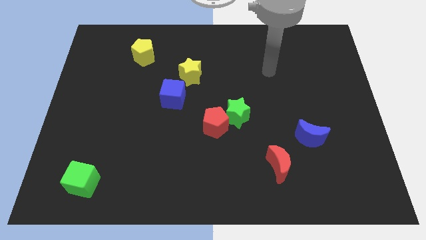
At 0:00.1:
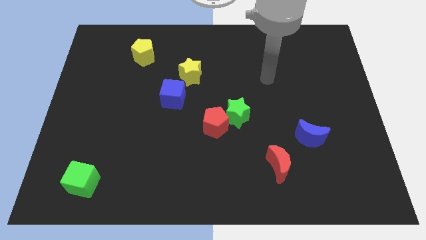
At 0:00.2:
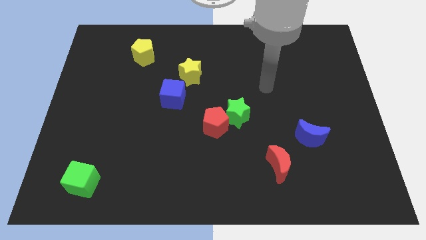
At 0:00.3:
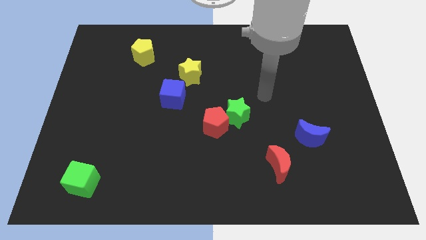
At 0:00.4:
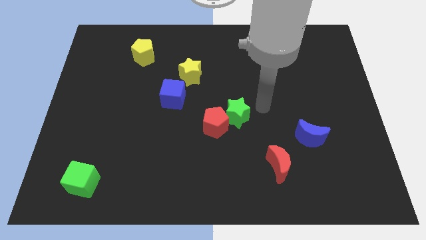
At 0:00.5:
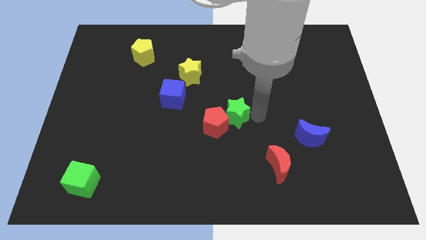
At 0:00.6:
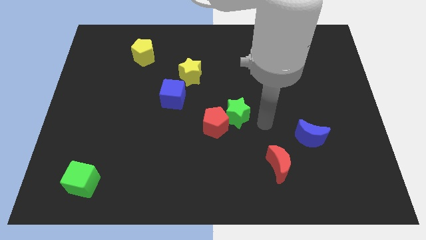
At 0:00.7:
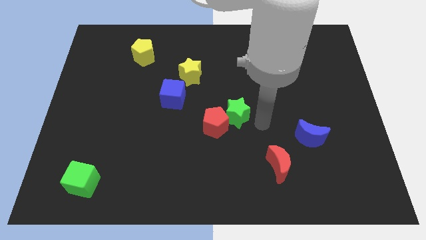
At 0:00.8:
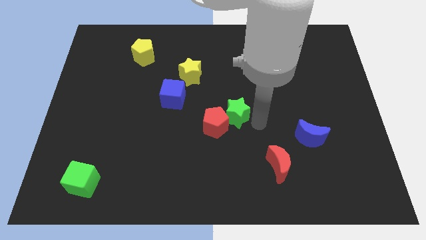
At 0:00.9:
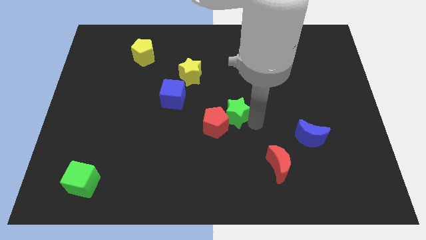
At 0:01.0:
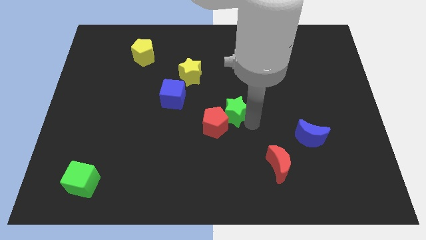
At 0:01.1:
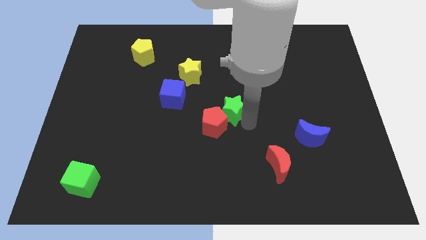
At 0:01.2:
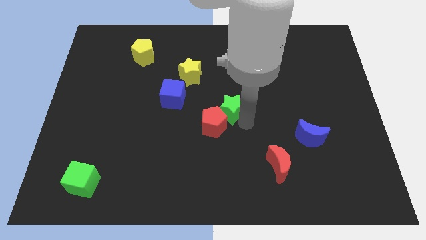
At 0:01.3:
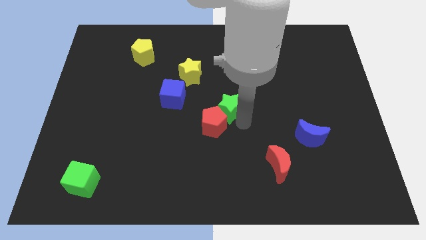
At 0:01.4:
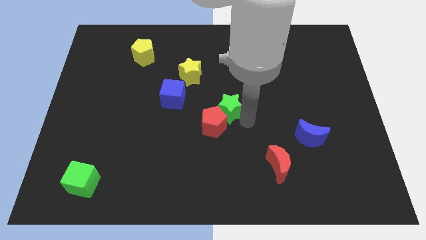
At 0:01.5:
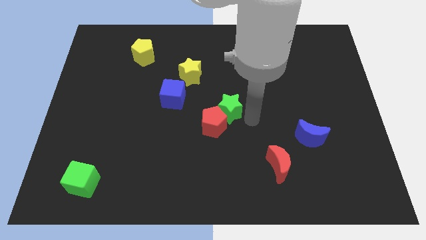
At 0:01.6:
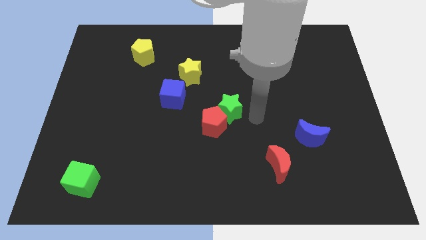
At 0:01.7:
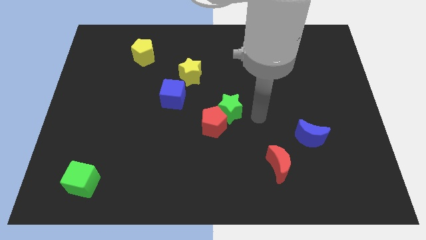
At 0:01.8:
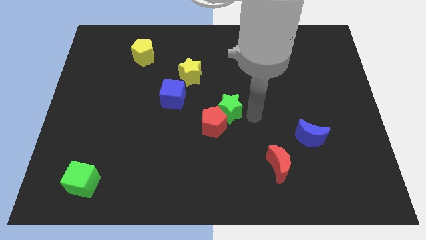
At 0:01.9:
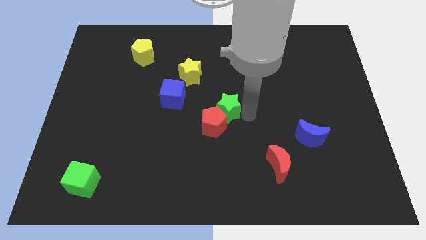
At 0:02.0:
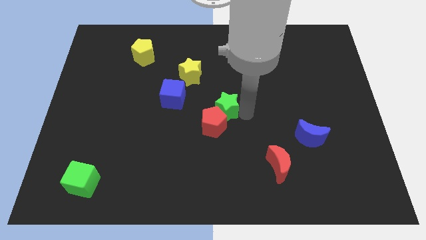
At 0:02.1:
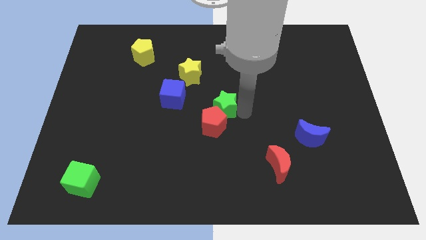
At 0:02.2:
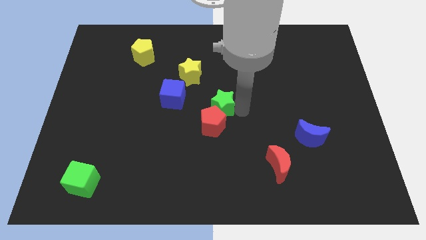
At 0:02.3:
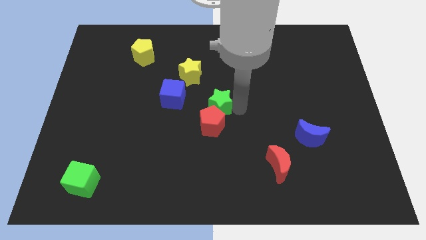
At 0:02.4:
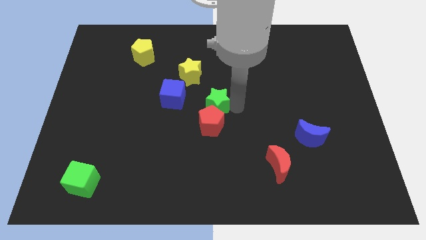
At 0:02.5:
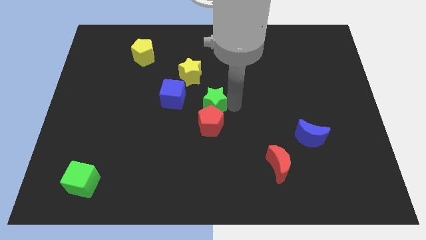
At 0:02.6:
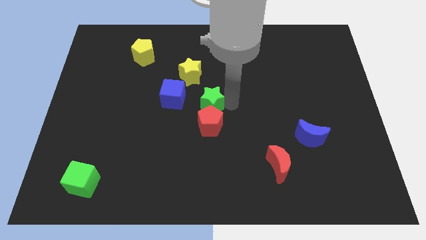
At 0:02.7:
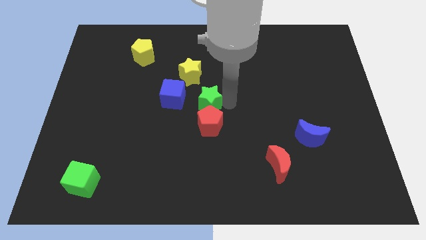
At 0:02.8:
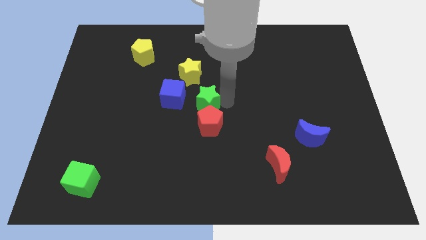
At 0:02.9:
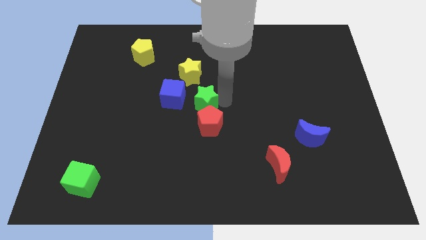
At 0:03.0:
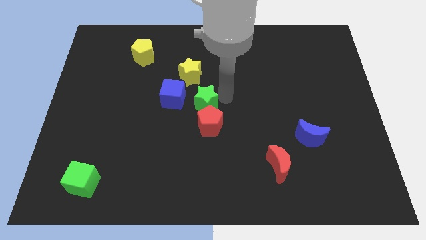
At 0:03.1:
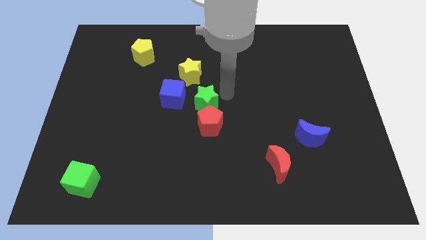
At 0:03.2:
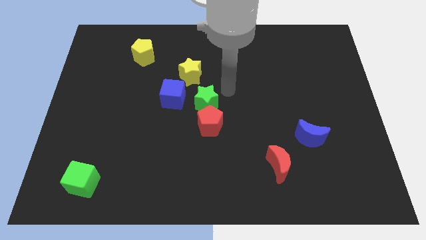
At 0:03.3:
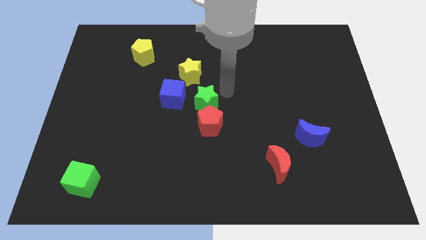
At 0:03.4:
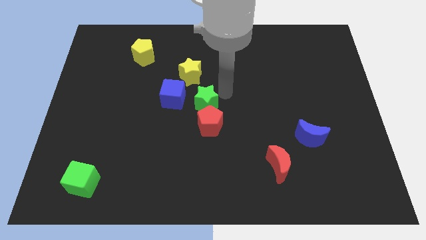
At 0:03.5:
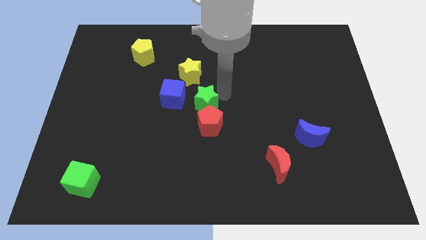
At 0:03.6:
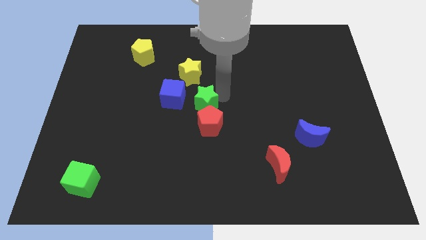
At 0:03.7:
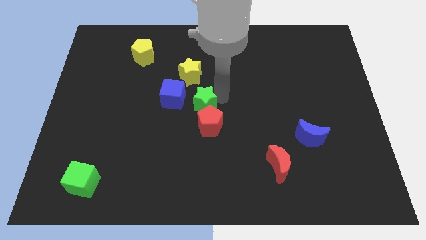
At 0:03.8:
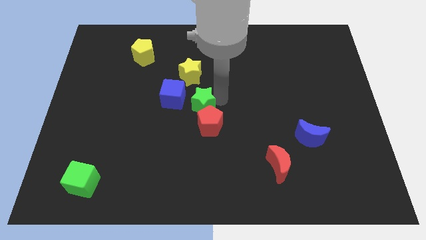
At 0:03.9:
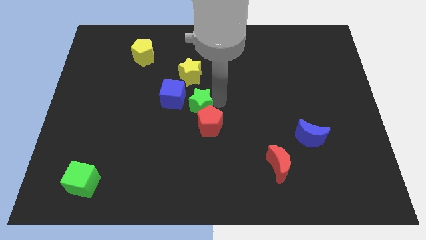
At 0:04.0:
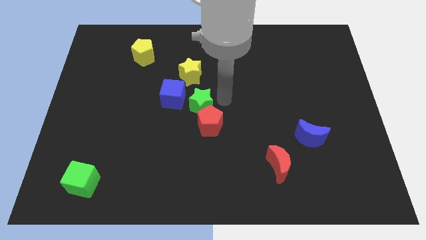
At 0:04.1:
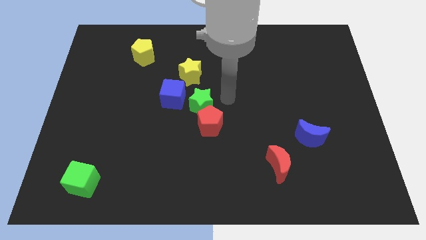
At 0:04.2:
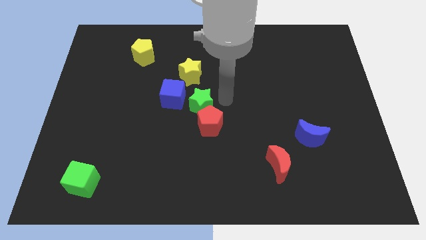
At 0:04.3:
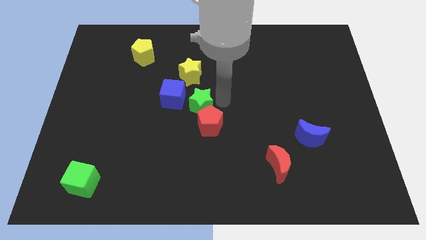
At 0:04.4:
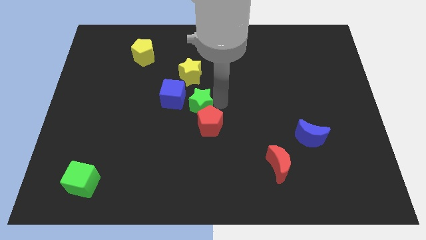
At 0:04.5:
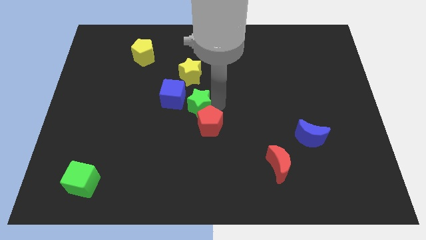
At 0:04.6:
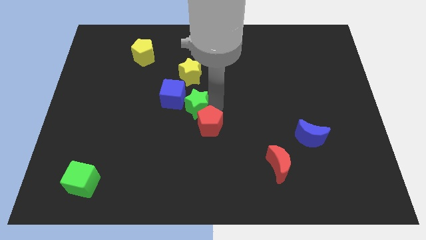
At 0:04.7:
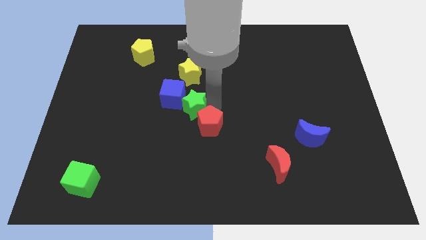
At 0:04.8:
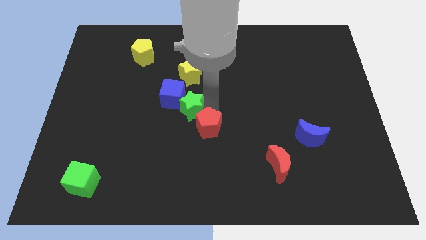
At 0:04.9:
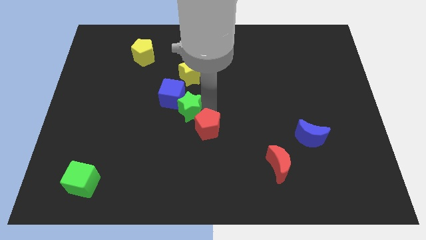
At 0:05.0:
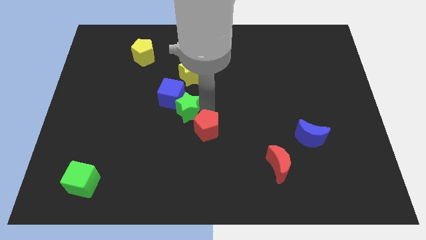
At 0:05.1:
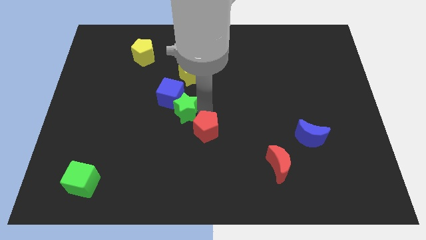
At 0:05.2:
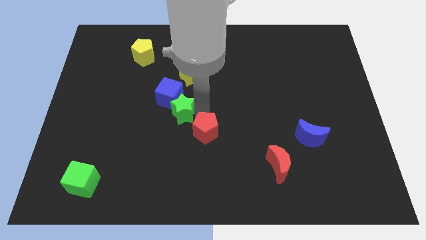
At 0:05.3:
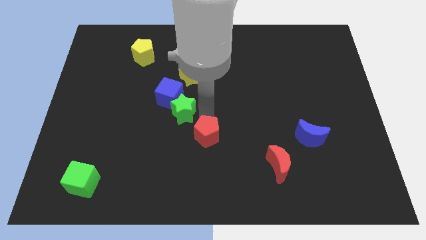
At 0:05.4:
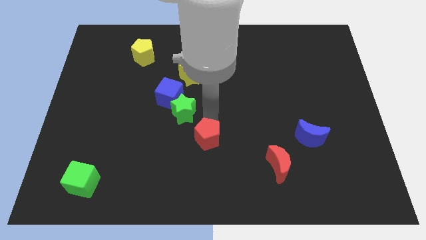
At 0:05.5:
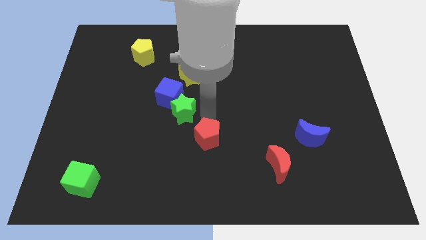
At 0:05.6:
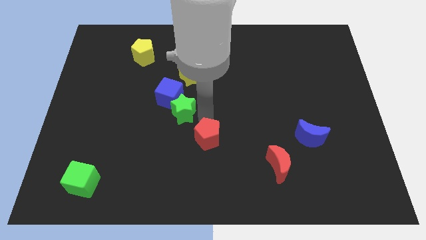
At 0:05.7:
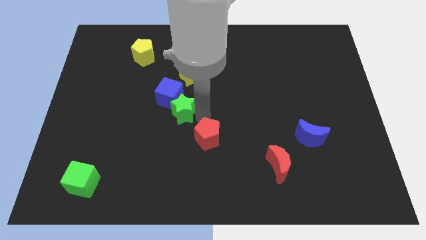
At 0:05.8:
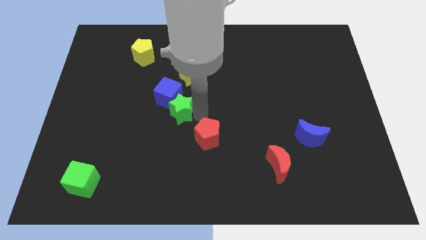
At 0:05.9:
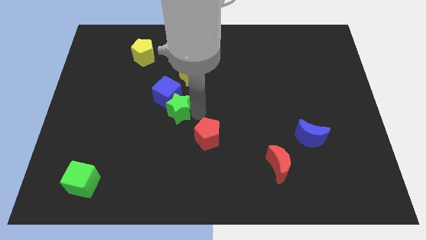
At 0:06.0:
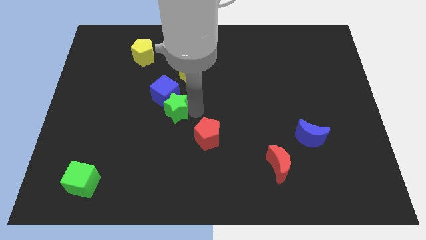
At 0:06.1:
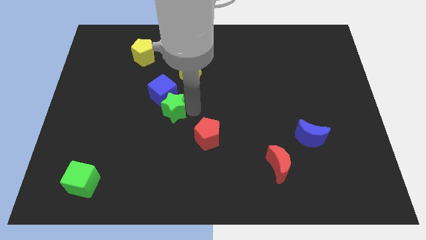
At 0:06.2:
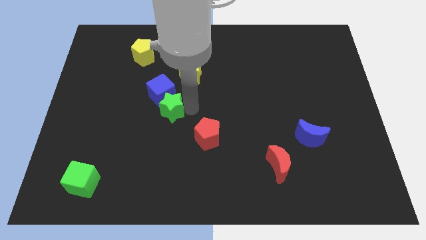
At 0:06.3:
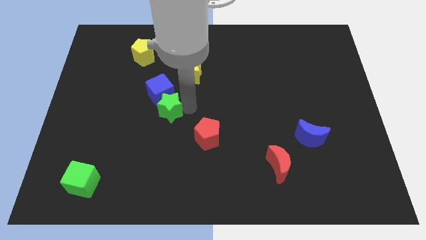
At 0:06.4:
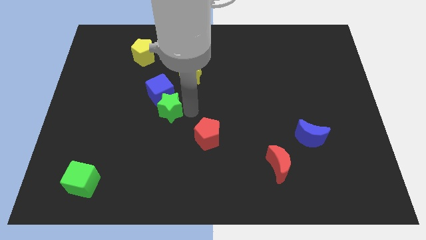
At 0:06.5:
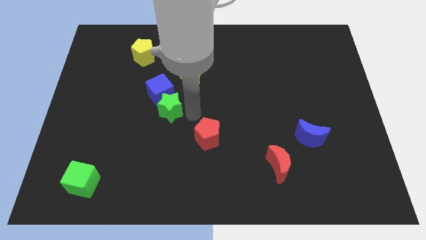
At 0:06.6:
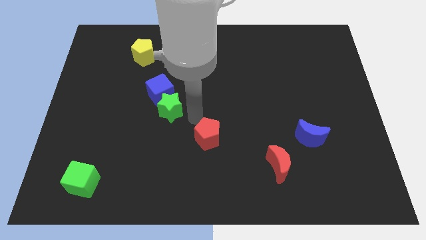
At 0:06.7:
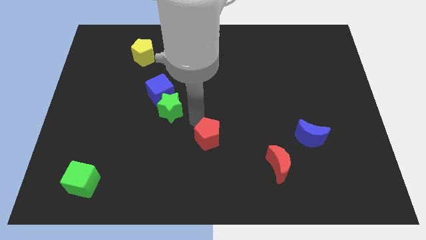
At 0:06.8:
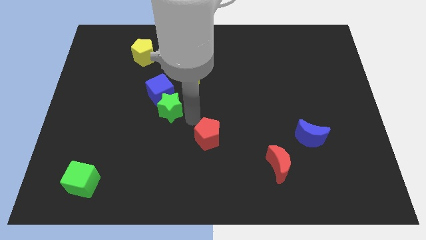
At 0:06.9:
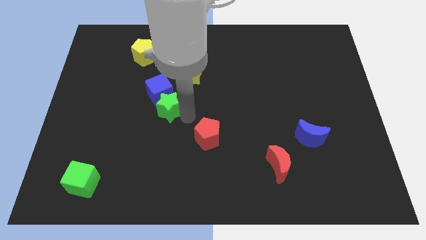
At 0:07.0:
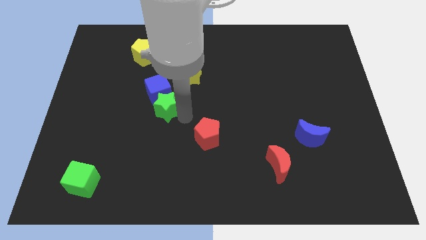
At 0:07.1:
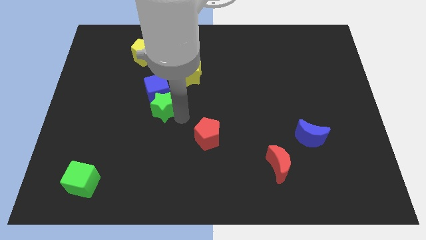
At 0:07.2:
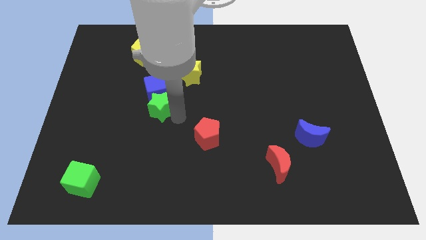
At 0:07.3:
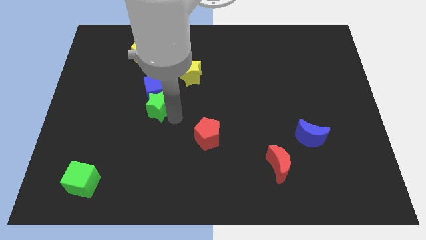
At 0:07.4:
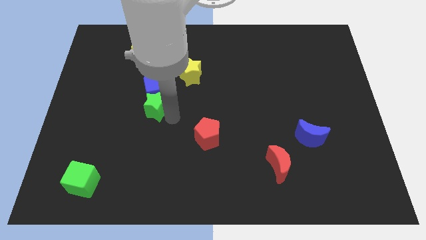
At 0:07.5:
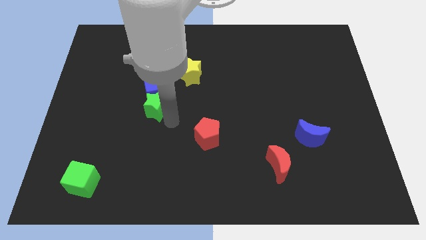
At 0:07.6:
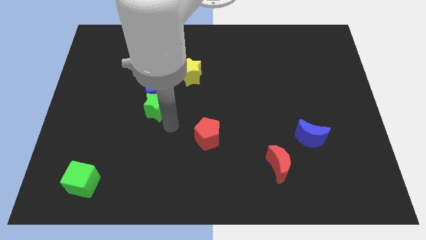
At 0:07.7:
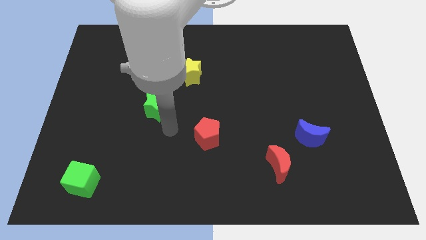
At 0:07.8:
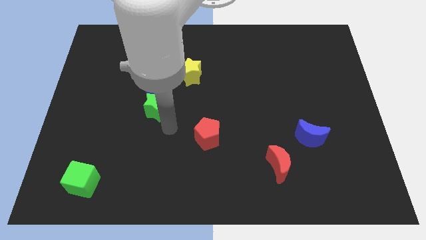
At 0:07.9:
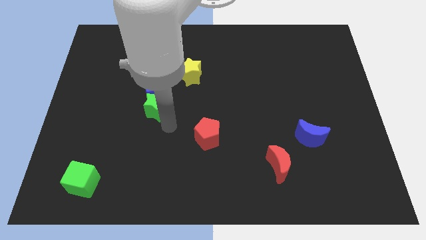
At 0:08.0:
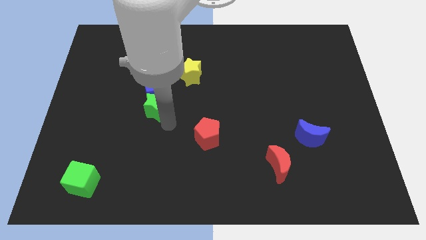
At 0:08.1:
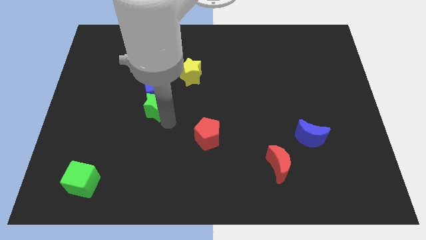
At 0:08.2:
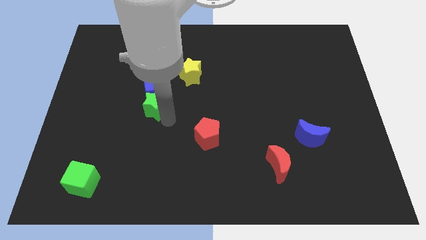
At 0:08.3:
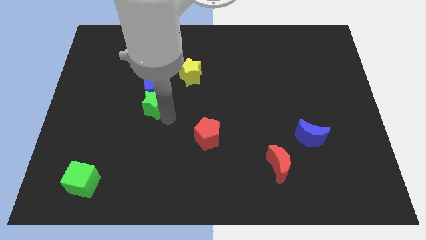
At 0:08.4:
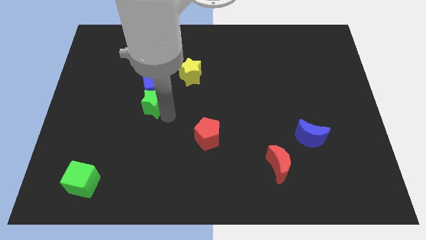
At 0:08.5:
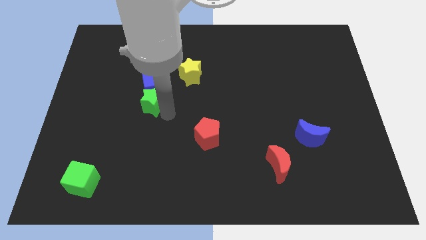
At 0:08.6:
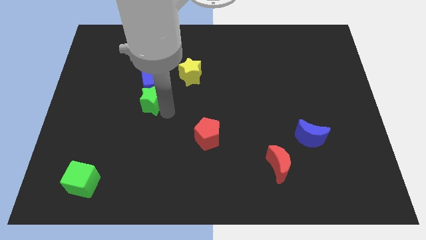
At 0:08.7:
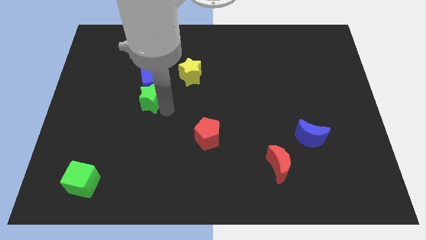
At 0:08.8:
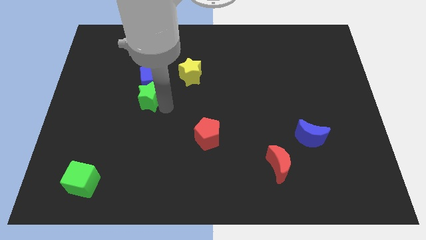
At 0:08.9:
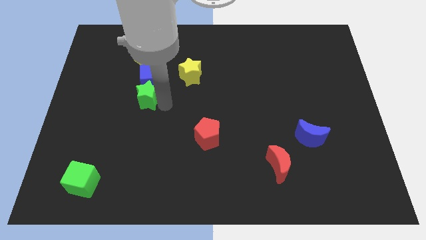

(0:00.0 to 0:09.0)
put the green star to the bottom of the yellow pentagon
